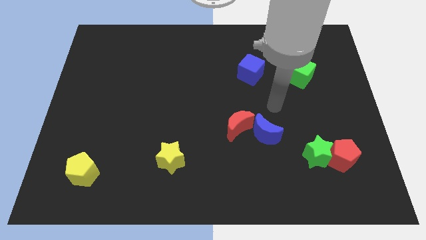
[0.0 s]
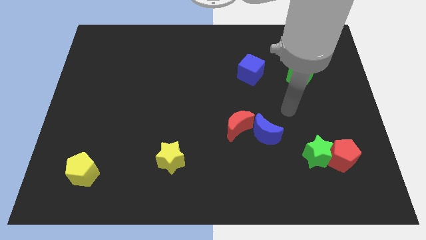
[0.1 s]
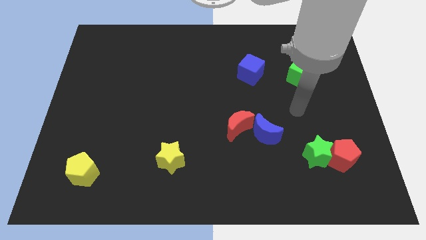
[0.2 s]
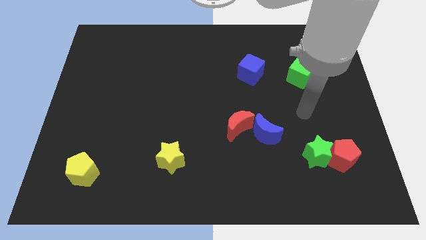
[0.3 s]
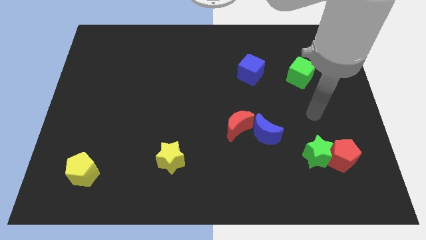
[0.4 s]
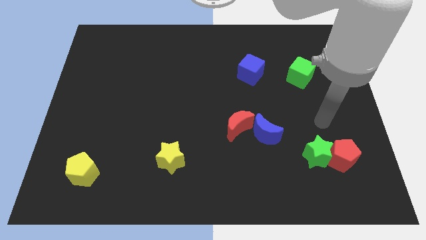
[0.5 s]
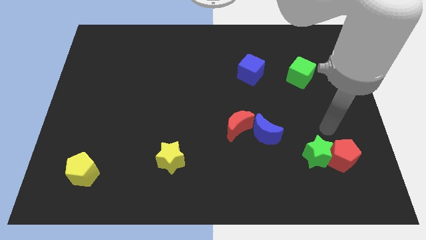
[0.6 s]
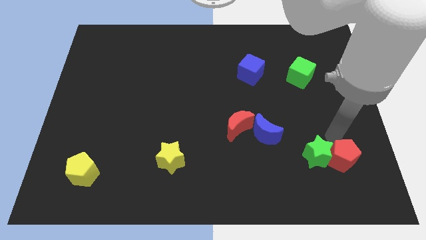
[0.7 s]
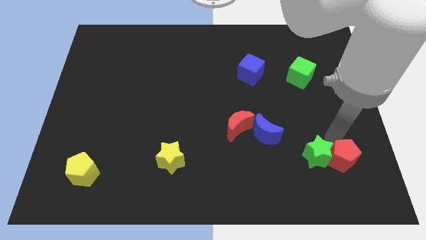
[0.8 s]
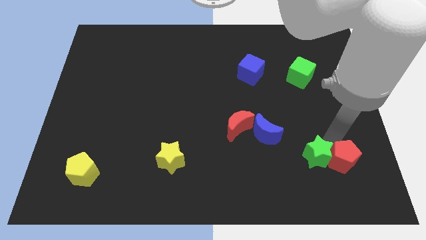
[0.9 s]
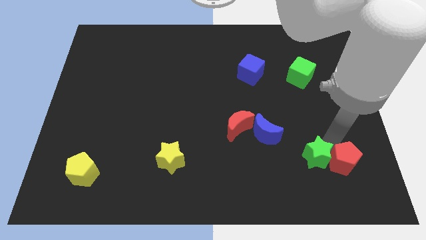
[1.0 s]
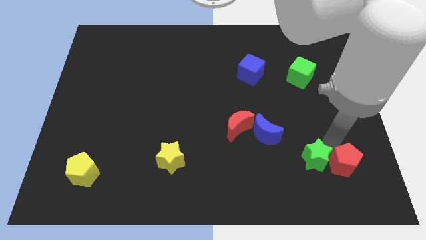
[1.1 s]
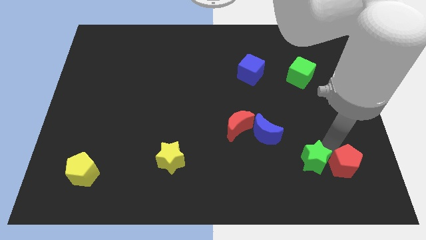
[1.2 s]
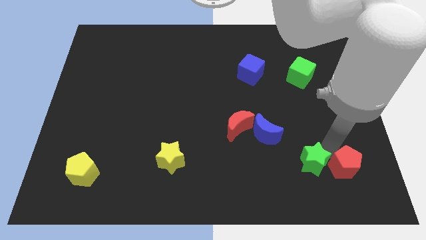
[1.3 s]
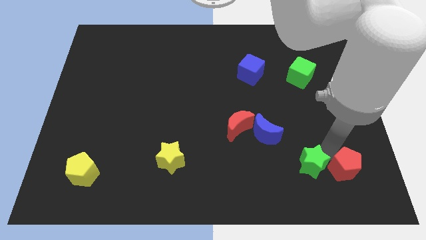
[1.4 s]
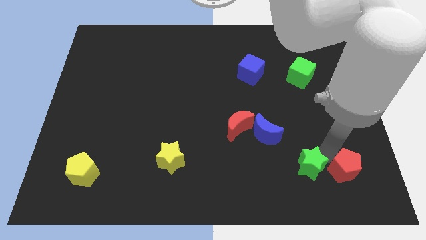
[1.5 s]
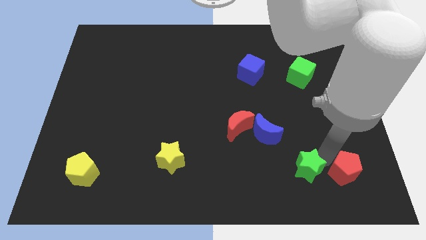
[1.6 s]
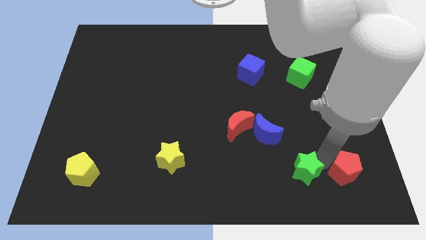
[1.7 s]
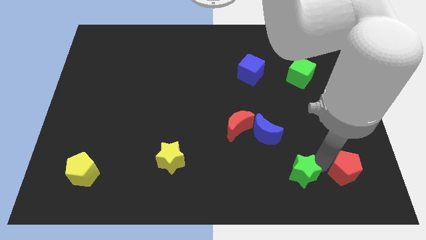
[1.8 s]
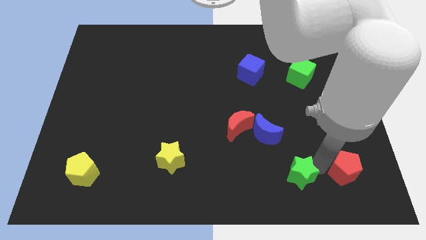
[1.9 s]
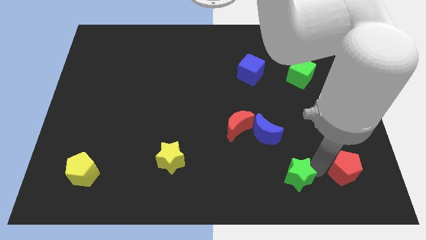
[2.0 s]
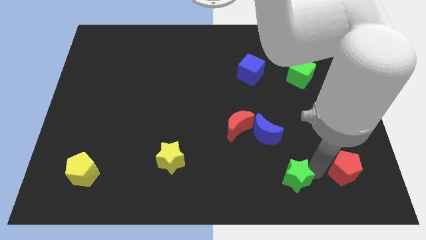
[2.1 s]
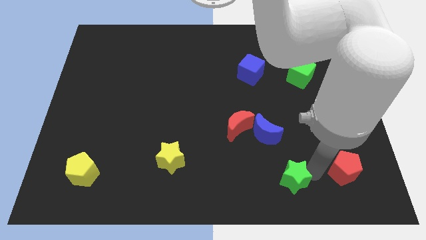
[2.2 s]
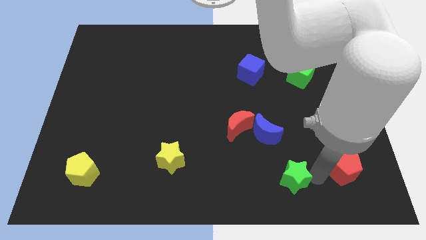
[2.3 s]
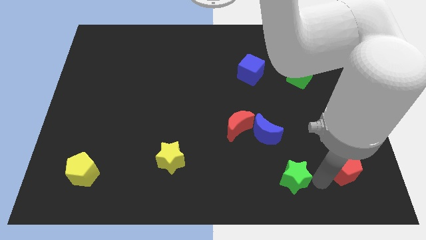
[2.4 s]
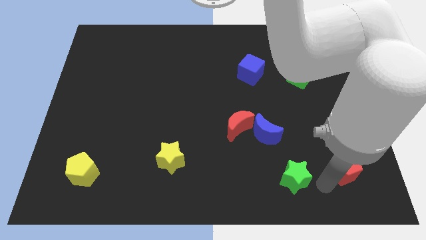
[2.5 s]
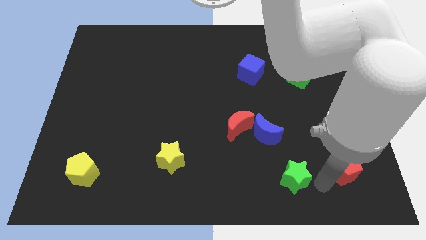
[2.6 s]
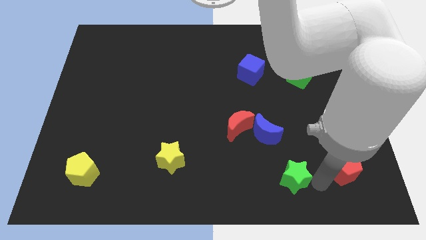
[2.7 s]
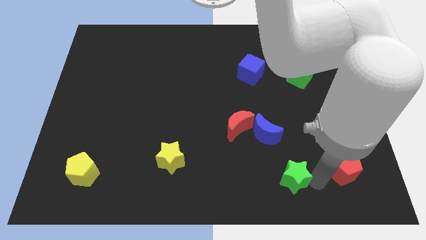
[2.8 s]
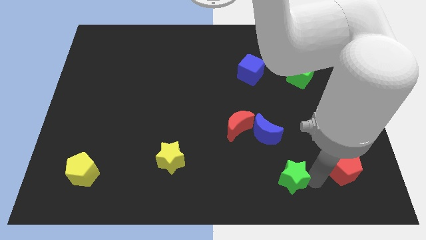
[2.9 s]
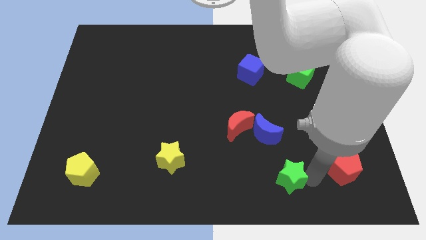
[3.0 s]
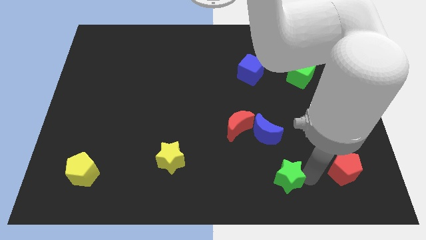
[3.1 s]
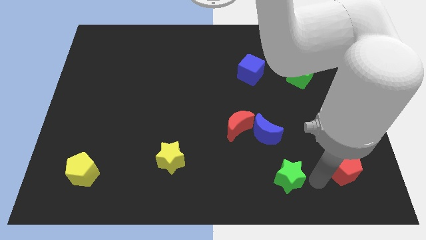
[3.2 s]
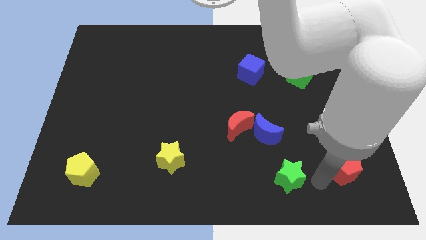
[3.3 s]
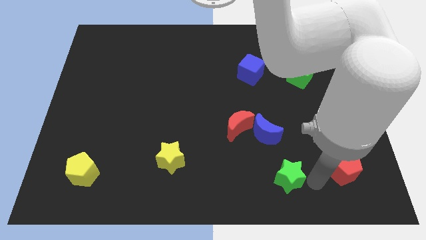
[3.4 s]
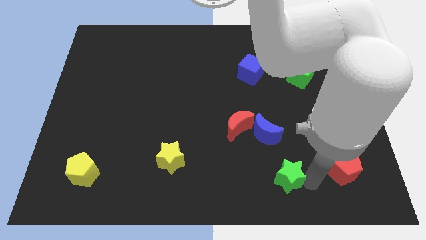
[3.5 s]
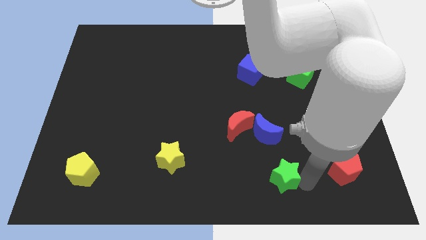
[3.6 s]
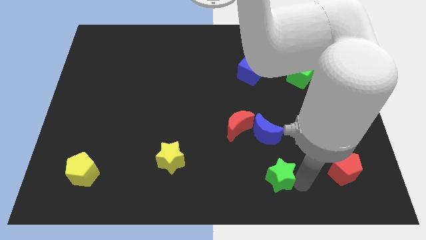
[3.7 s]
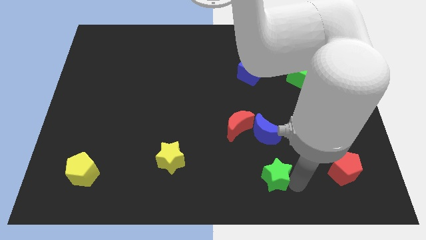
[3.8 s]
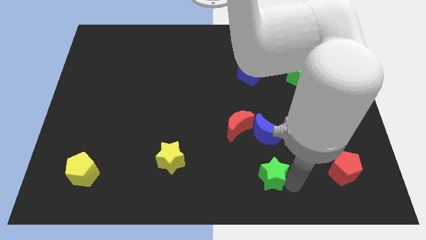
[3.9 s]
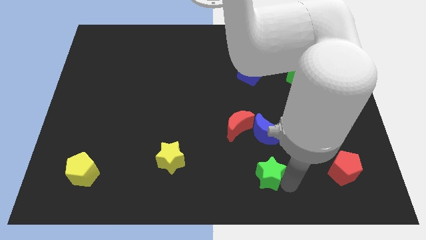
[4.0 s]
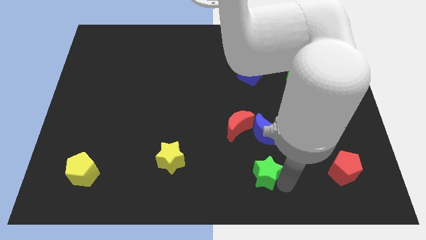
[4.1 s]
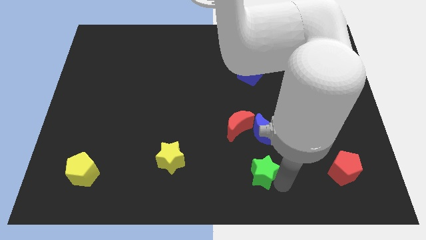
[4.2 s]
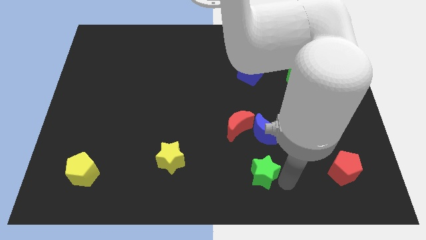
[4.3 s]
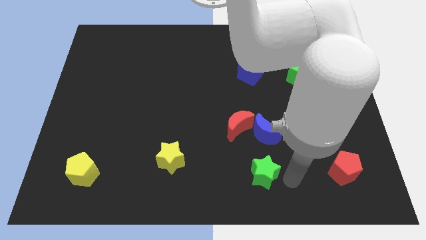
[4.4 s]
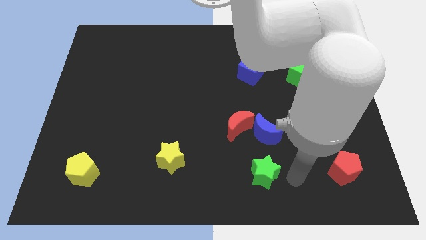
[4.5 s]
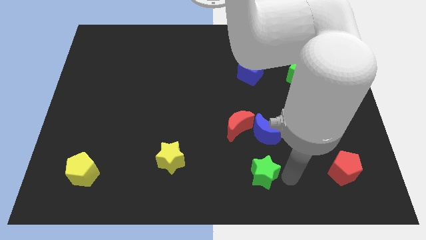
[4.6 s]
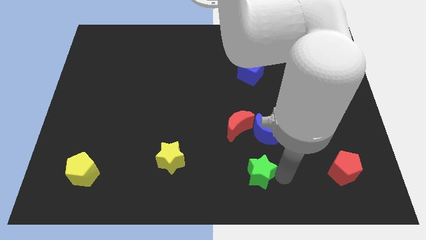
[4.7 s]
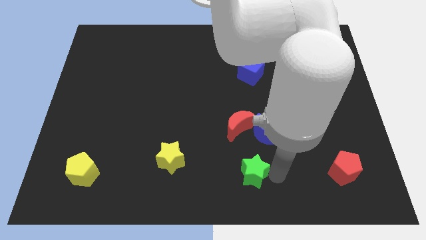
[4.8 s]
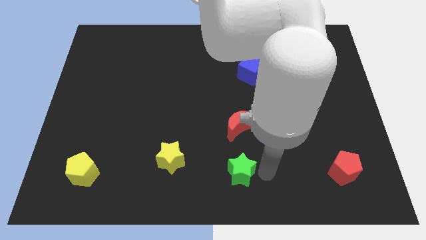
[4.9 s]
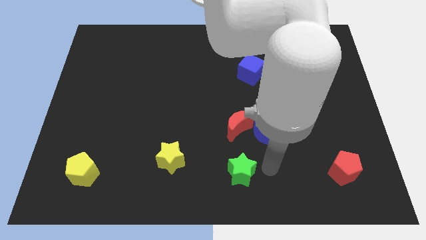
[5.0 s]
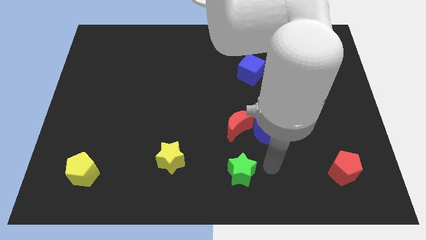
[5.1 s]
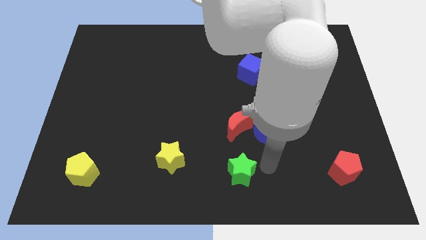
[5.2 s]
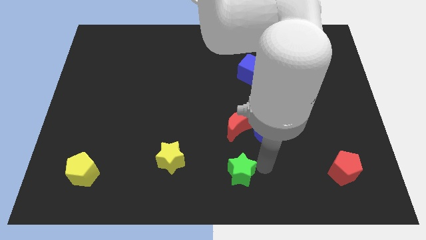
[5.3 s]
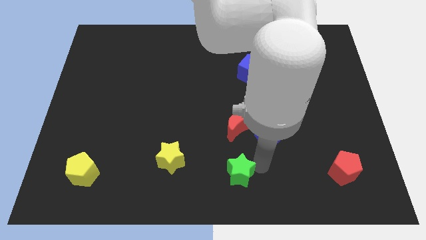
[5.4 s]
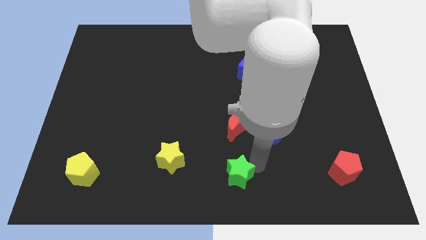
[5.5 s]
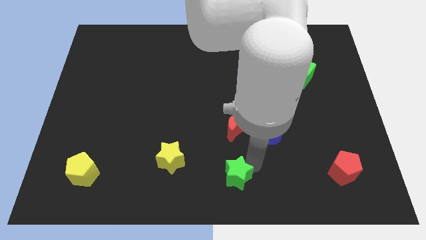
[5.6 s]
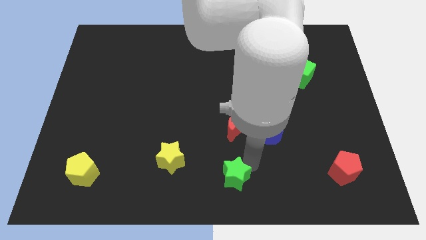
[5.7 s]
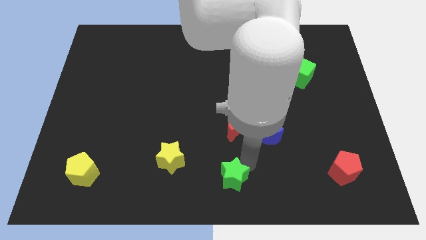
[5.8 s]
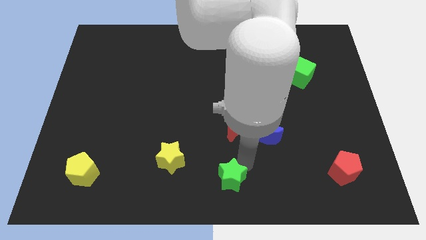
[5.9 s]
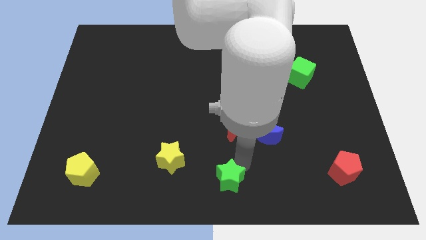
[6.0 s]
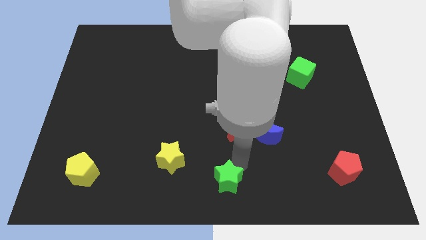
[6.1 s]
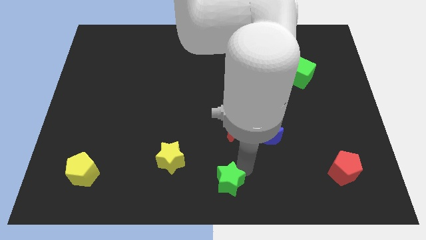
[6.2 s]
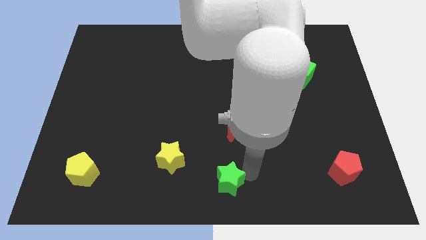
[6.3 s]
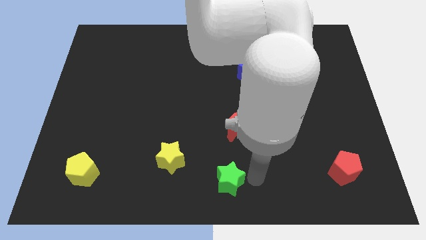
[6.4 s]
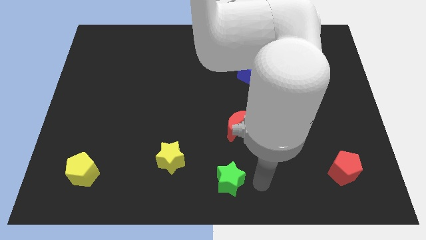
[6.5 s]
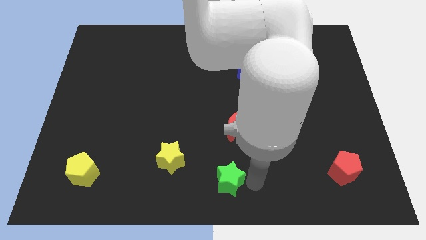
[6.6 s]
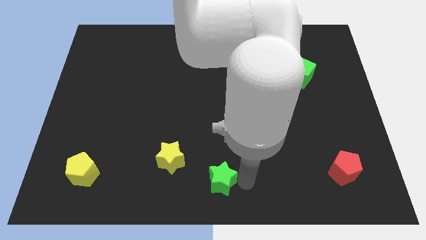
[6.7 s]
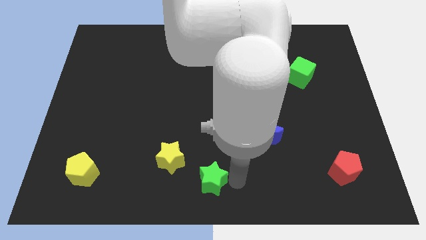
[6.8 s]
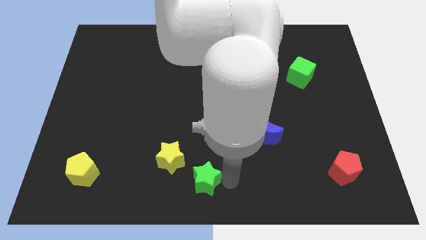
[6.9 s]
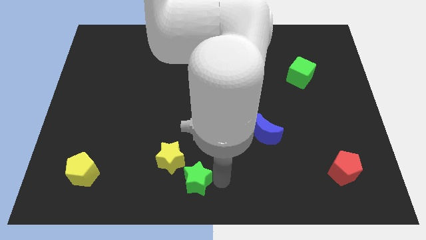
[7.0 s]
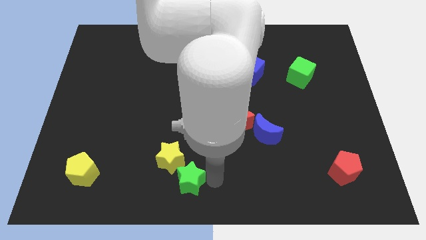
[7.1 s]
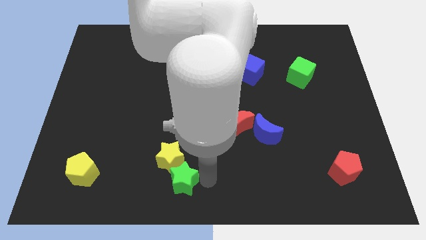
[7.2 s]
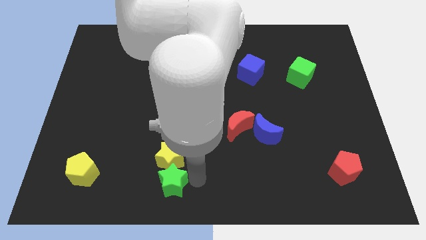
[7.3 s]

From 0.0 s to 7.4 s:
slide the green star to the bottom left side of the yellow star
